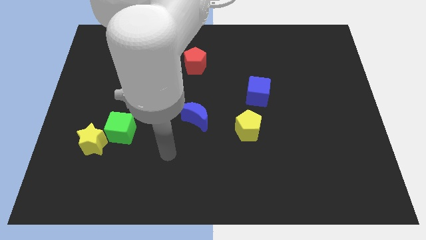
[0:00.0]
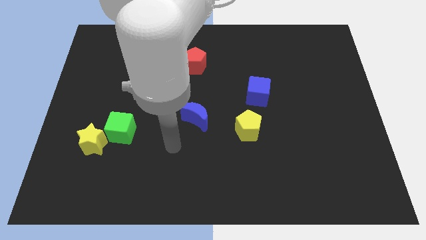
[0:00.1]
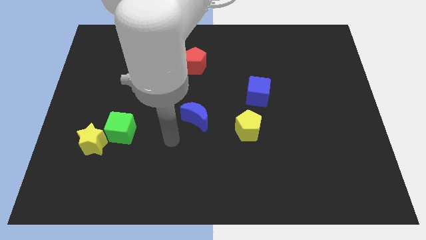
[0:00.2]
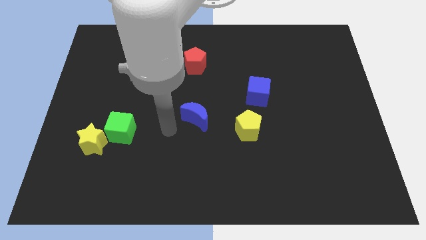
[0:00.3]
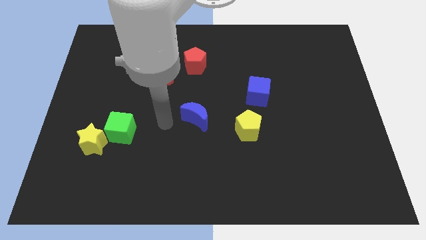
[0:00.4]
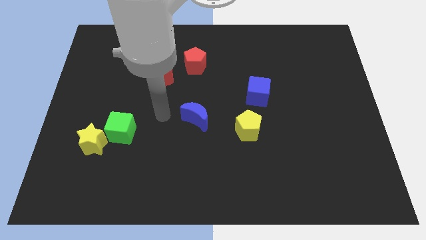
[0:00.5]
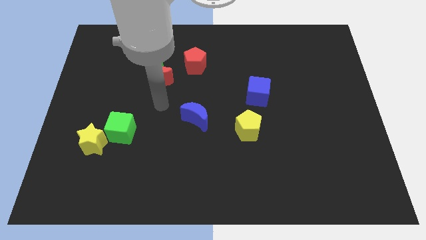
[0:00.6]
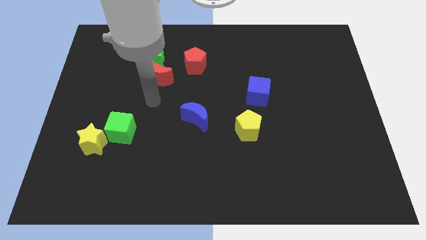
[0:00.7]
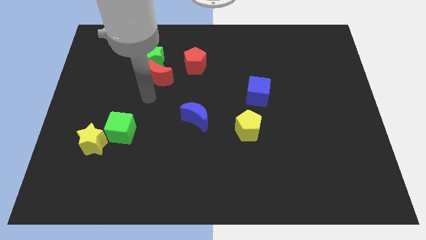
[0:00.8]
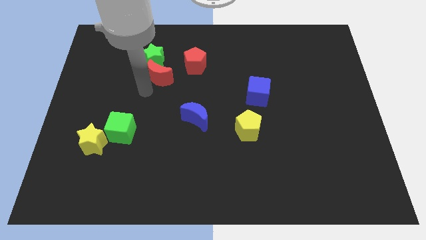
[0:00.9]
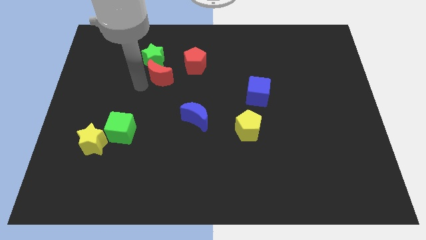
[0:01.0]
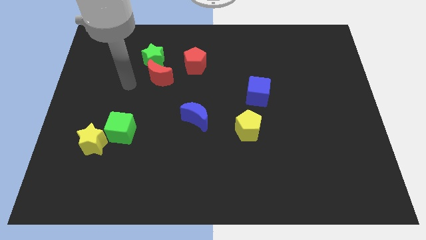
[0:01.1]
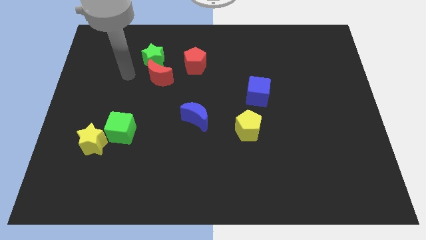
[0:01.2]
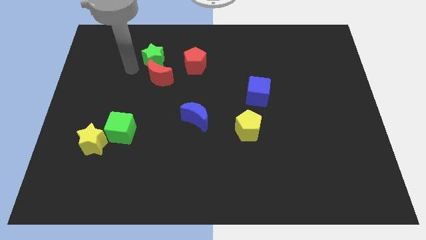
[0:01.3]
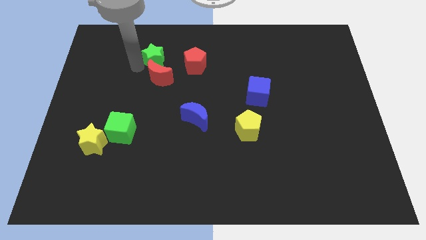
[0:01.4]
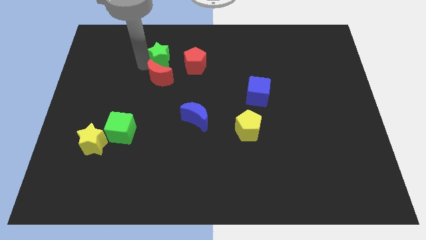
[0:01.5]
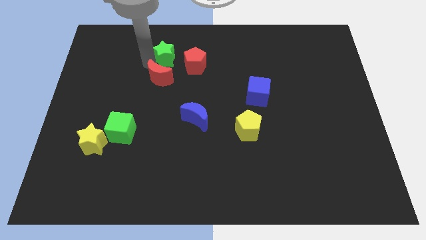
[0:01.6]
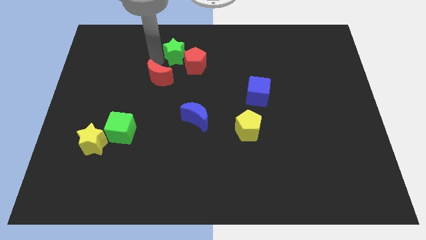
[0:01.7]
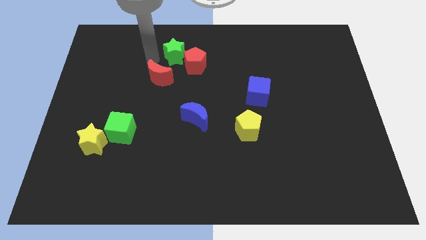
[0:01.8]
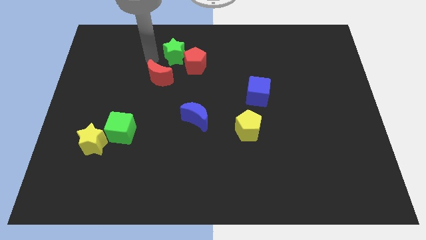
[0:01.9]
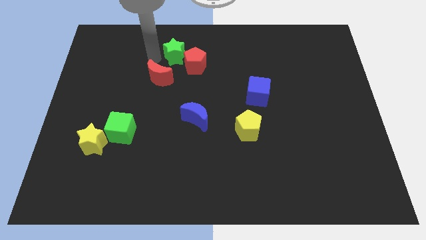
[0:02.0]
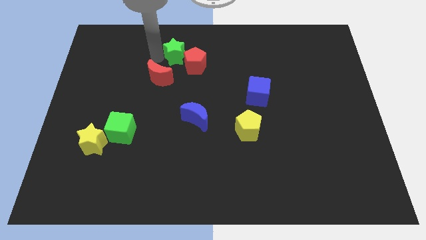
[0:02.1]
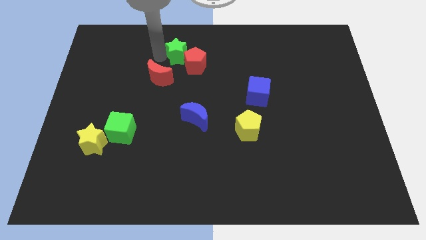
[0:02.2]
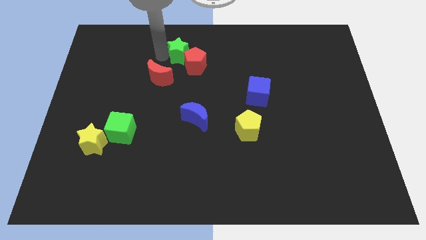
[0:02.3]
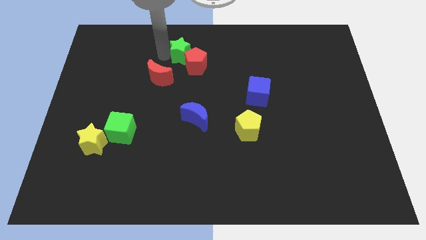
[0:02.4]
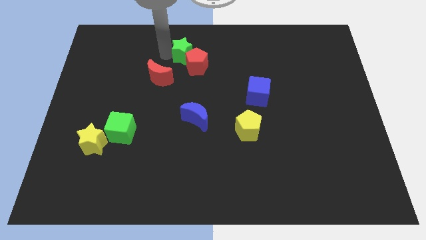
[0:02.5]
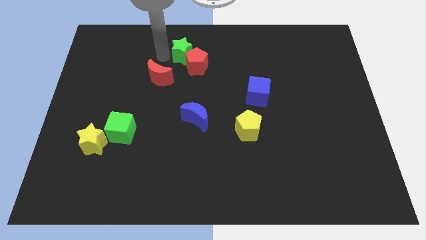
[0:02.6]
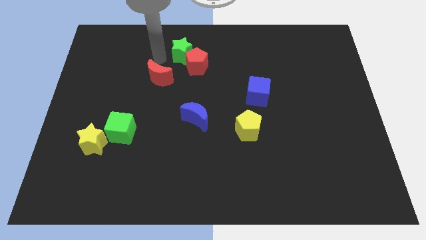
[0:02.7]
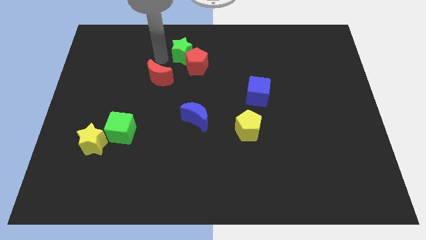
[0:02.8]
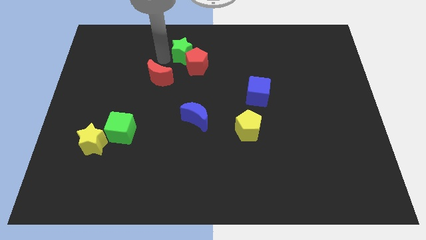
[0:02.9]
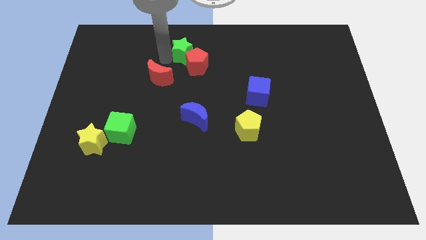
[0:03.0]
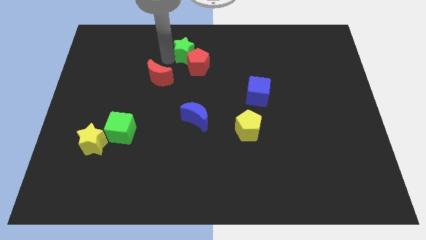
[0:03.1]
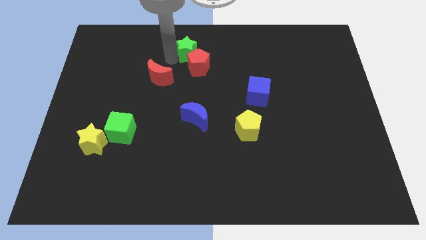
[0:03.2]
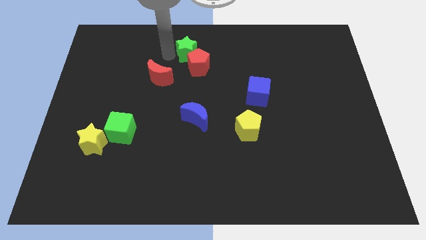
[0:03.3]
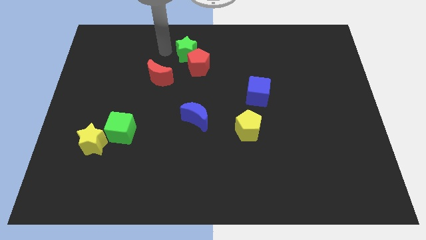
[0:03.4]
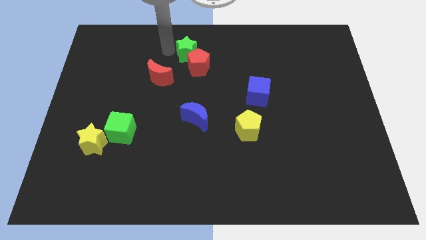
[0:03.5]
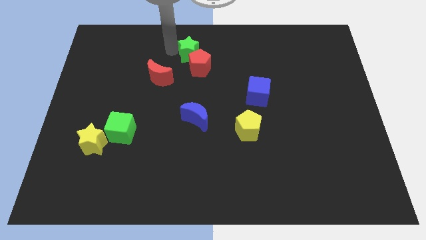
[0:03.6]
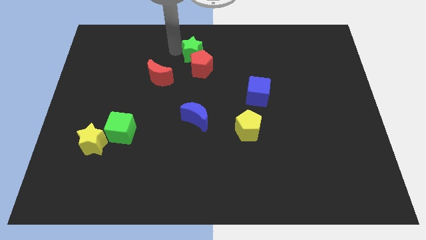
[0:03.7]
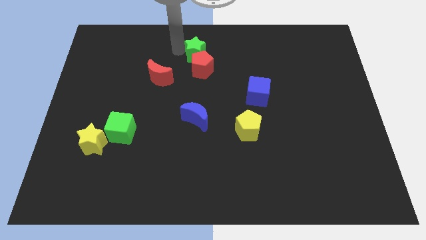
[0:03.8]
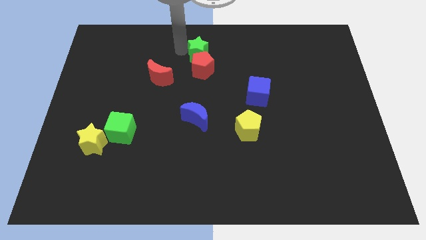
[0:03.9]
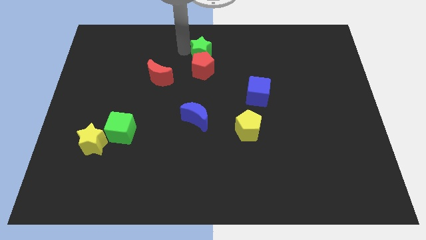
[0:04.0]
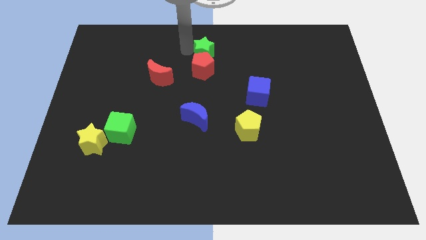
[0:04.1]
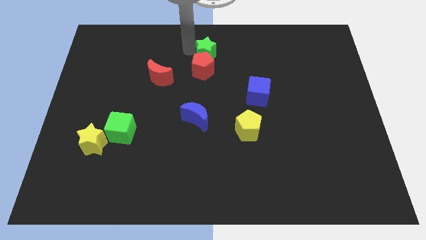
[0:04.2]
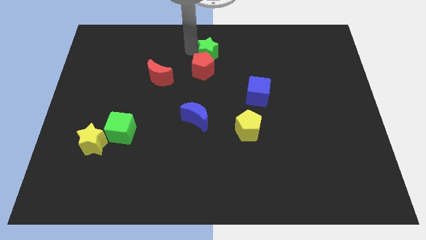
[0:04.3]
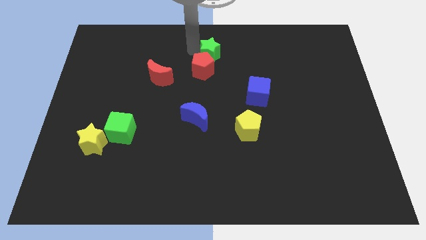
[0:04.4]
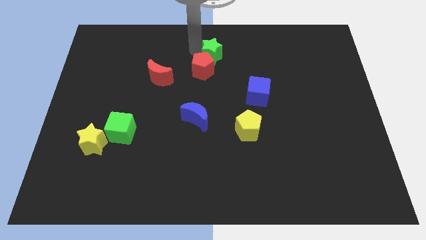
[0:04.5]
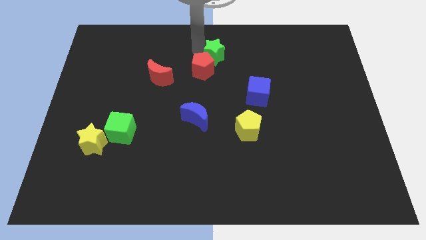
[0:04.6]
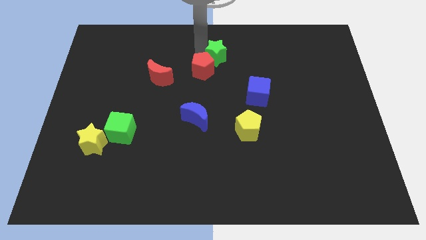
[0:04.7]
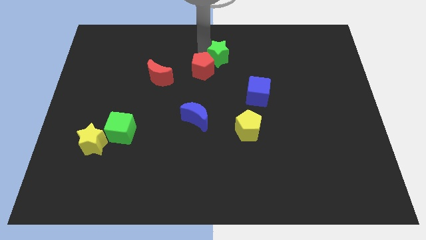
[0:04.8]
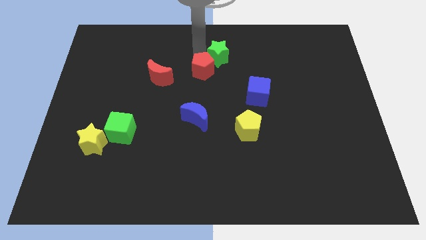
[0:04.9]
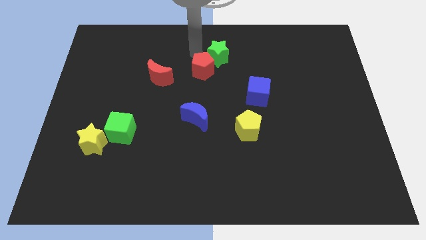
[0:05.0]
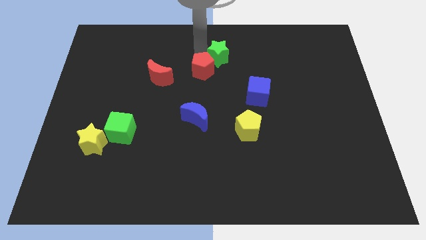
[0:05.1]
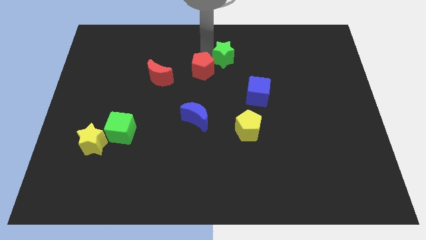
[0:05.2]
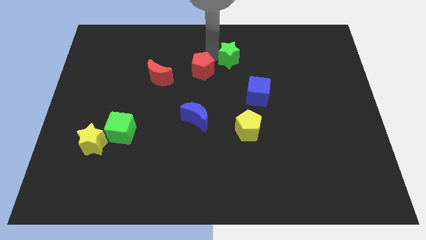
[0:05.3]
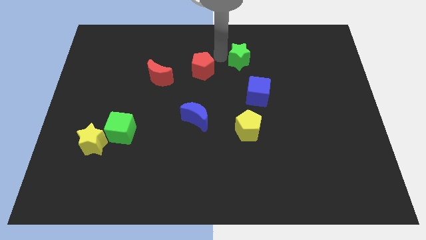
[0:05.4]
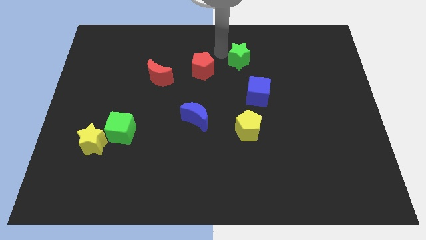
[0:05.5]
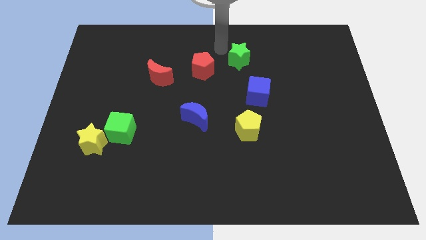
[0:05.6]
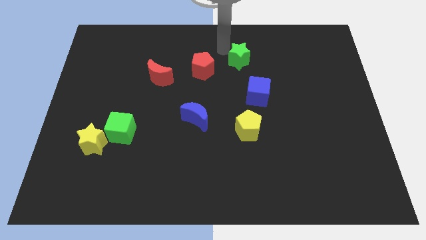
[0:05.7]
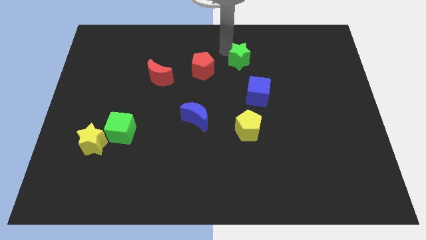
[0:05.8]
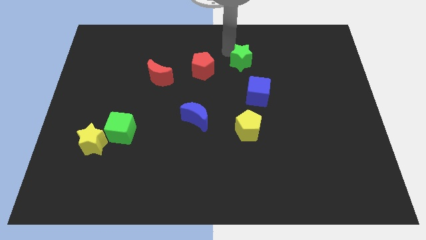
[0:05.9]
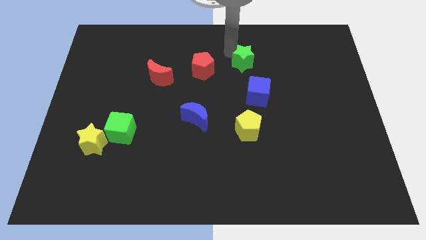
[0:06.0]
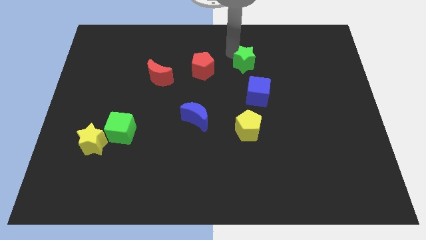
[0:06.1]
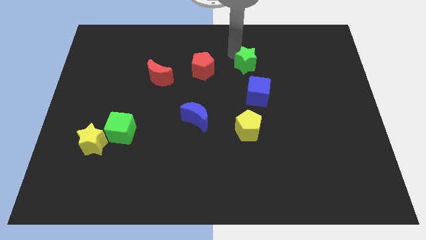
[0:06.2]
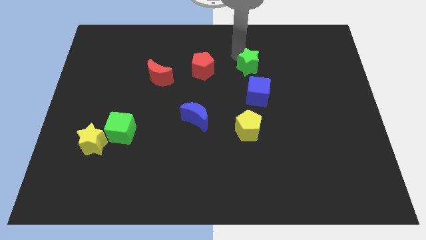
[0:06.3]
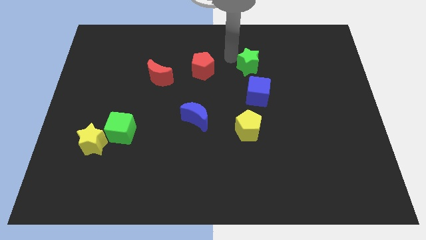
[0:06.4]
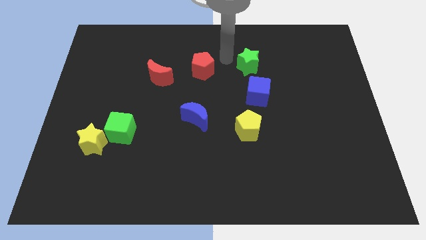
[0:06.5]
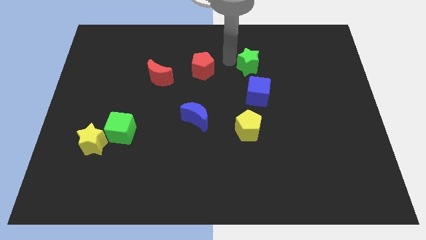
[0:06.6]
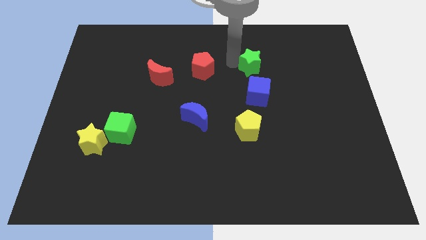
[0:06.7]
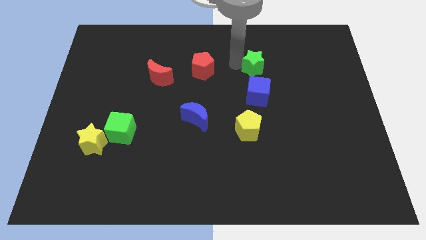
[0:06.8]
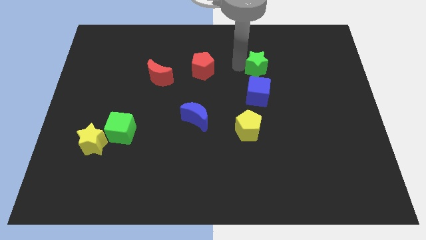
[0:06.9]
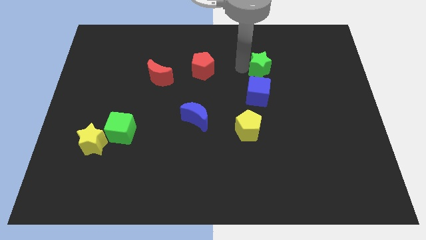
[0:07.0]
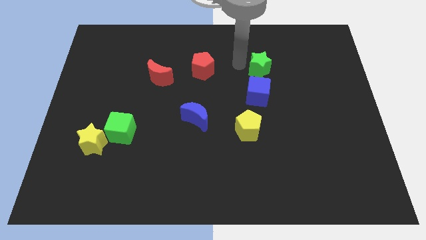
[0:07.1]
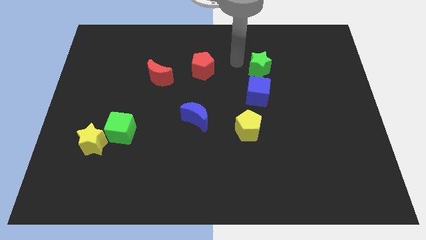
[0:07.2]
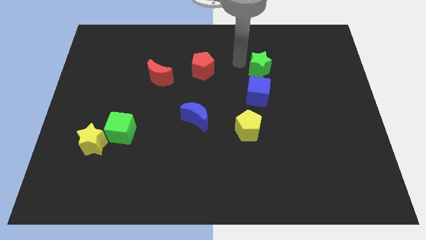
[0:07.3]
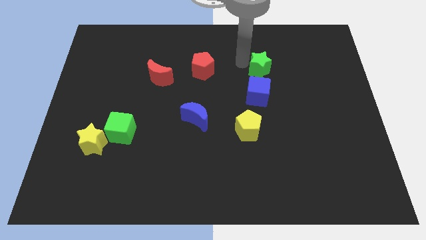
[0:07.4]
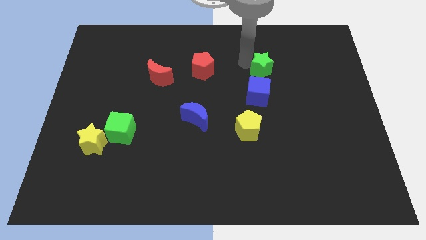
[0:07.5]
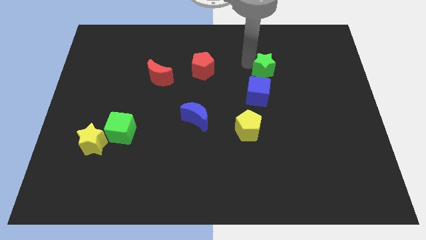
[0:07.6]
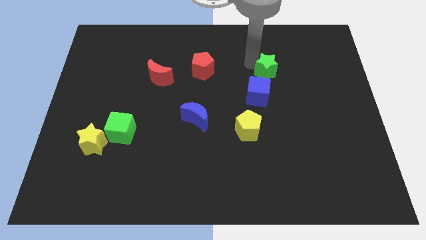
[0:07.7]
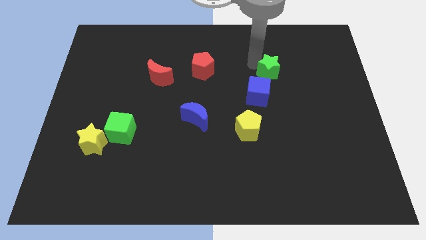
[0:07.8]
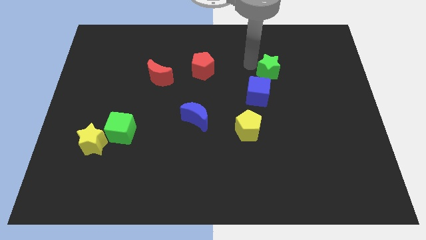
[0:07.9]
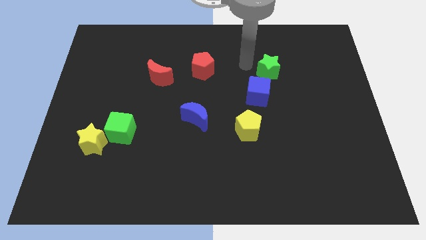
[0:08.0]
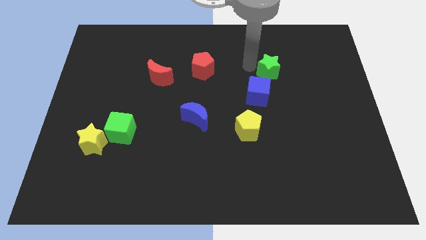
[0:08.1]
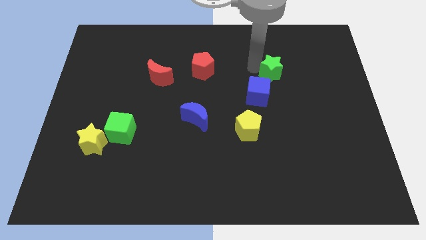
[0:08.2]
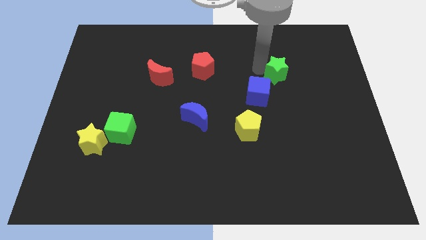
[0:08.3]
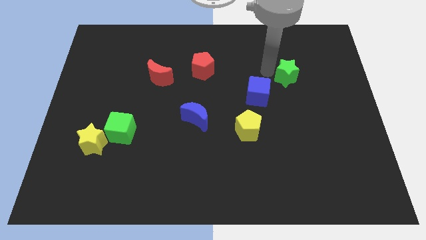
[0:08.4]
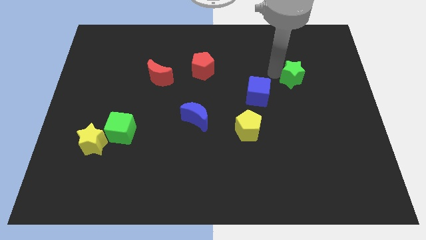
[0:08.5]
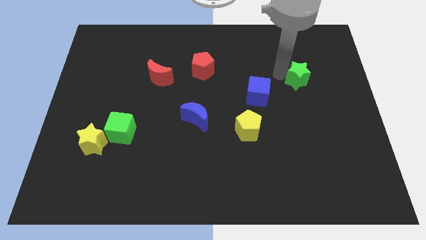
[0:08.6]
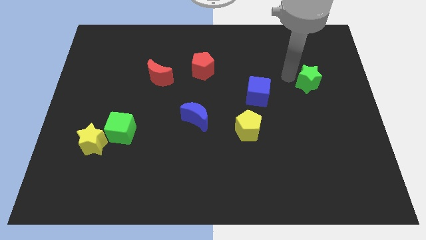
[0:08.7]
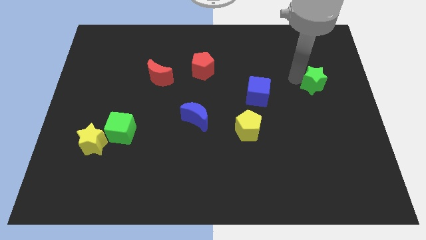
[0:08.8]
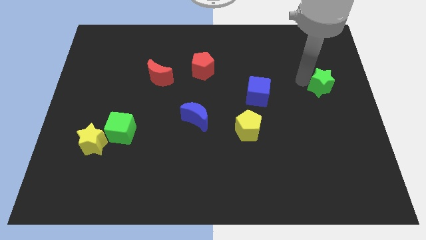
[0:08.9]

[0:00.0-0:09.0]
slide the green star to the right side of the board
